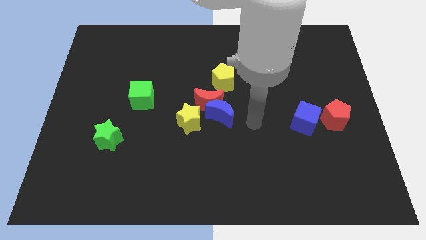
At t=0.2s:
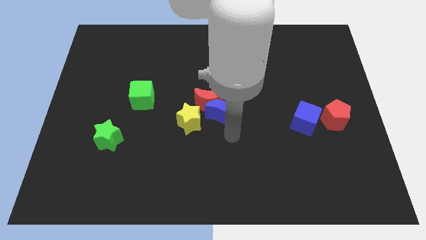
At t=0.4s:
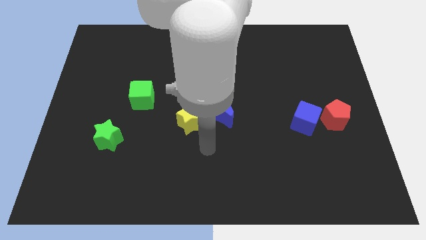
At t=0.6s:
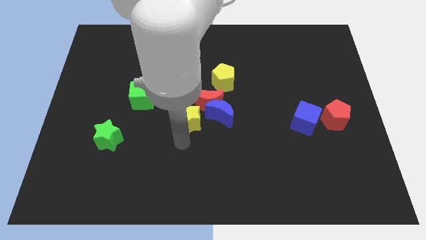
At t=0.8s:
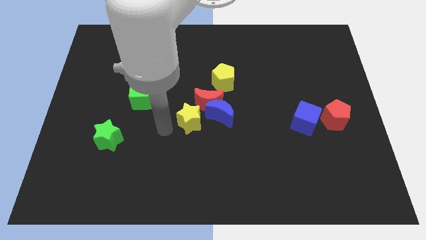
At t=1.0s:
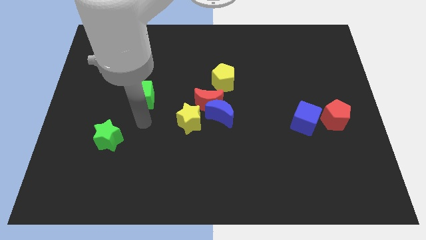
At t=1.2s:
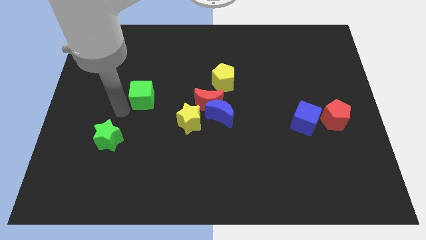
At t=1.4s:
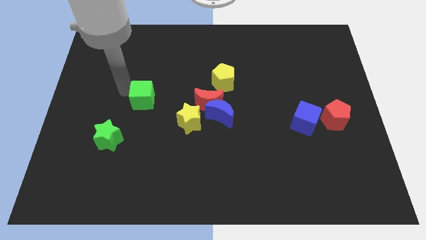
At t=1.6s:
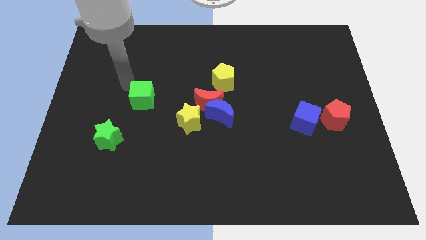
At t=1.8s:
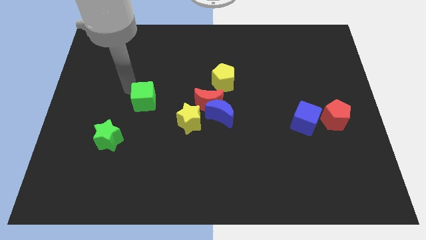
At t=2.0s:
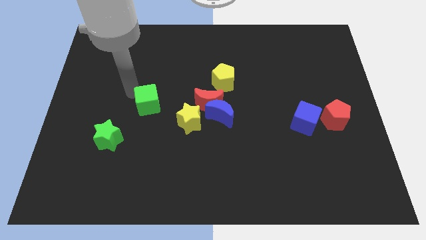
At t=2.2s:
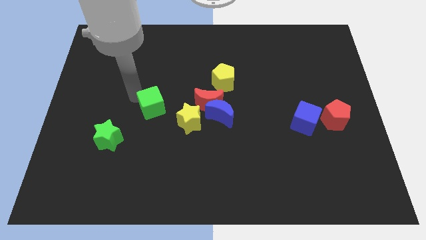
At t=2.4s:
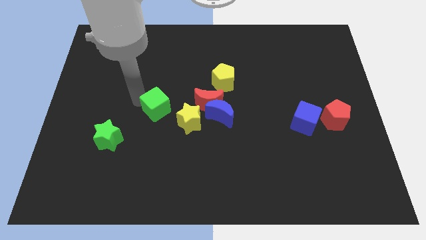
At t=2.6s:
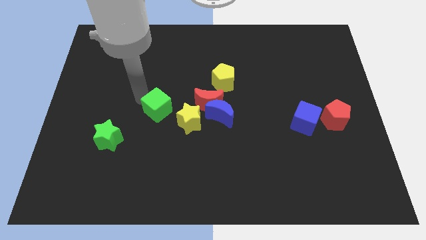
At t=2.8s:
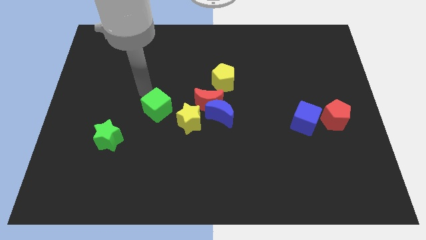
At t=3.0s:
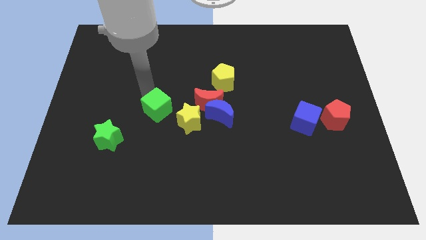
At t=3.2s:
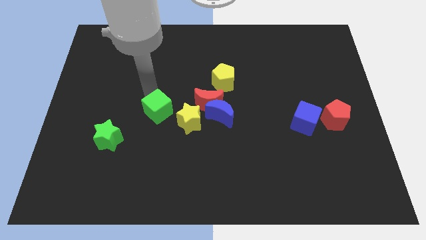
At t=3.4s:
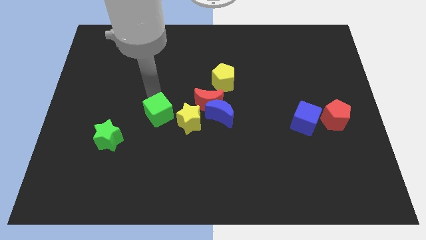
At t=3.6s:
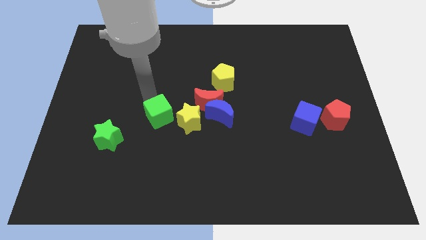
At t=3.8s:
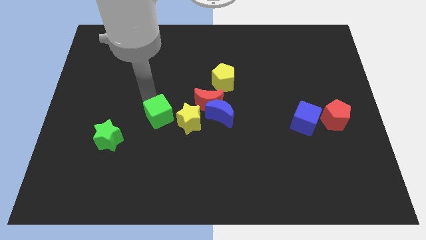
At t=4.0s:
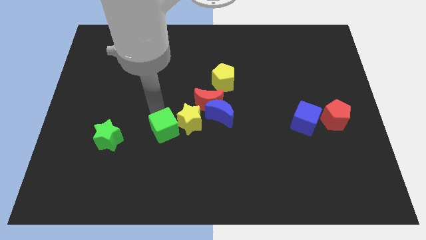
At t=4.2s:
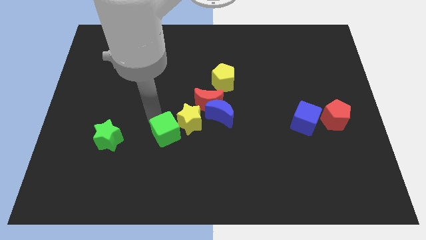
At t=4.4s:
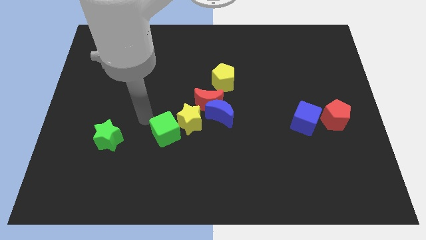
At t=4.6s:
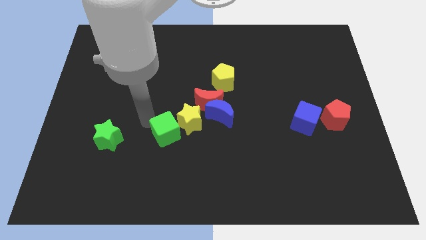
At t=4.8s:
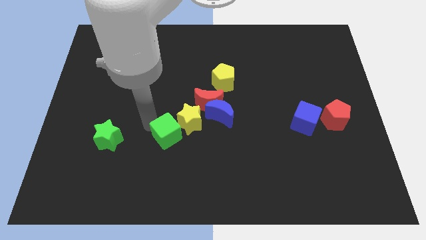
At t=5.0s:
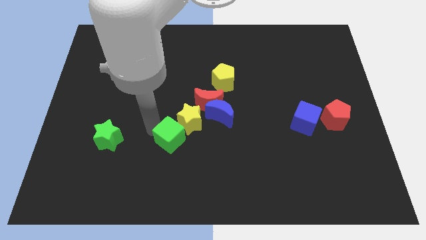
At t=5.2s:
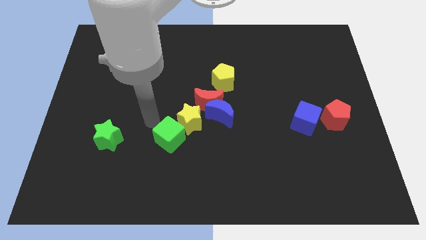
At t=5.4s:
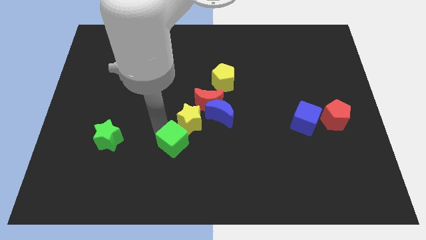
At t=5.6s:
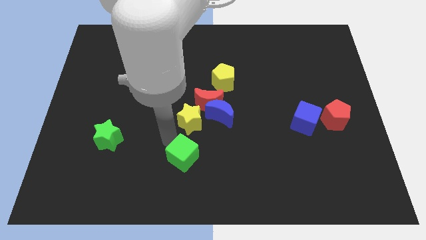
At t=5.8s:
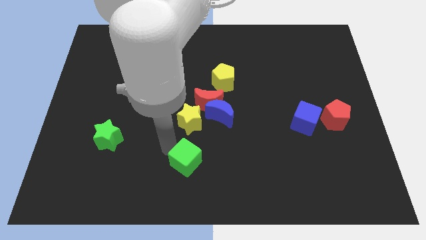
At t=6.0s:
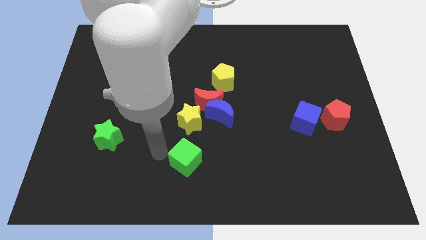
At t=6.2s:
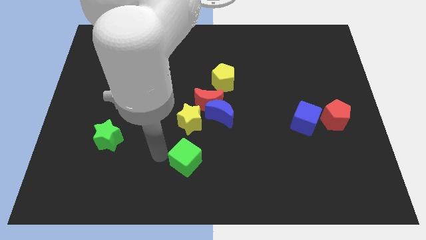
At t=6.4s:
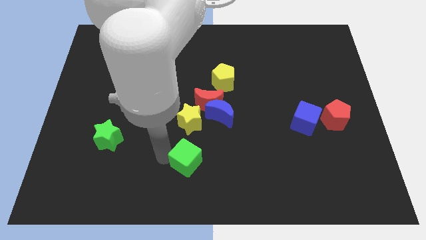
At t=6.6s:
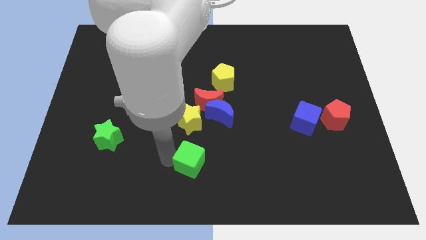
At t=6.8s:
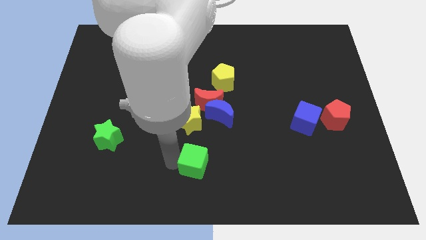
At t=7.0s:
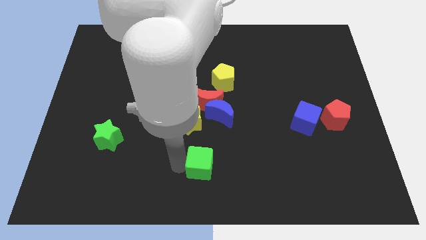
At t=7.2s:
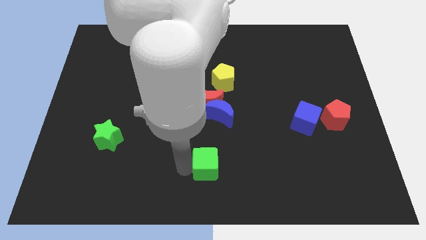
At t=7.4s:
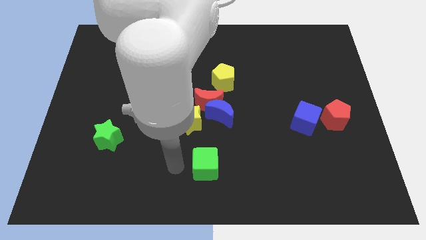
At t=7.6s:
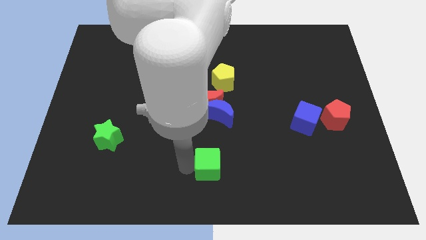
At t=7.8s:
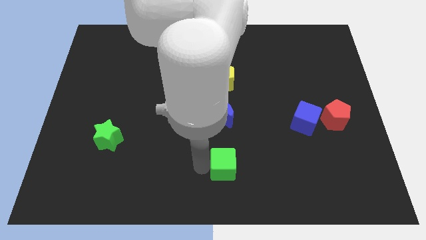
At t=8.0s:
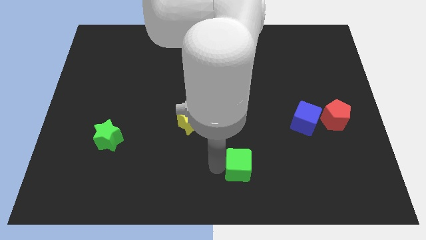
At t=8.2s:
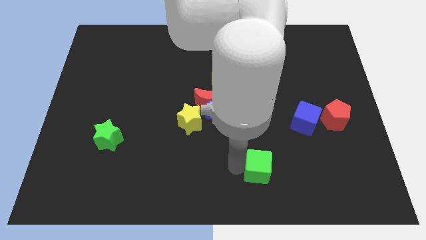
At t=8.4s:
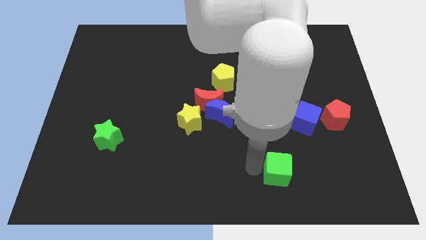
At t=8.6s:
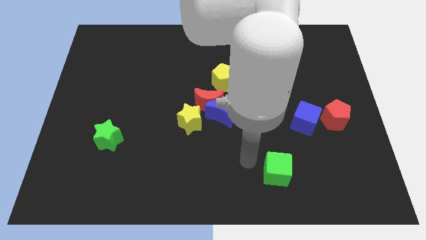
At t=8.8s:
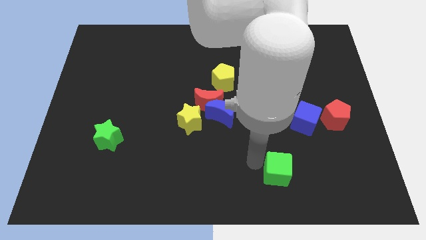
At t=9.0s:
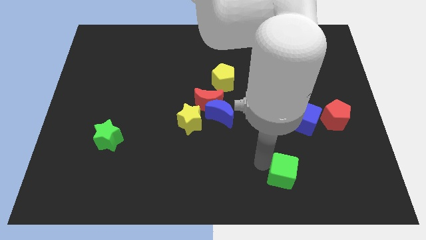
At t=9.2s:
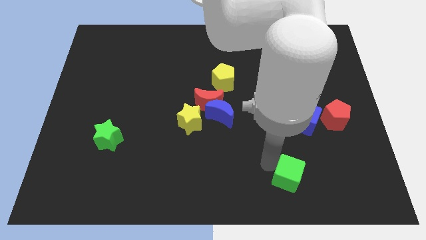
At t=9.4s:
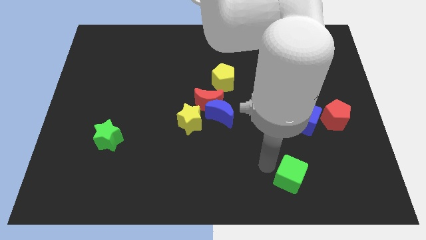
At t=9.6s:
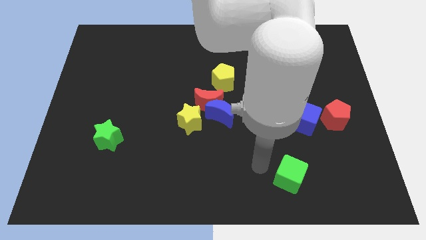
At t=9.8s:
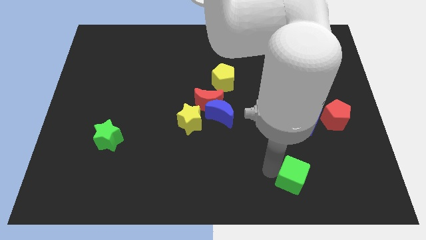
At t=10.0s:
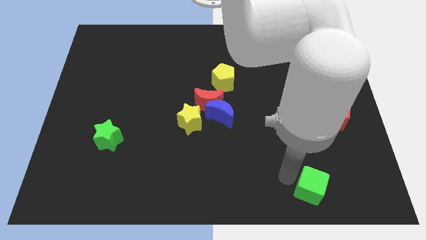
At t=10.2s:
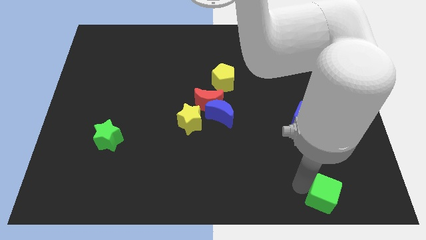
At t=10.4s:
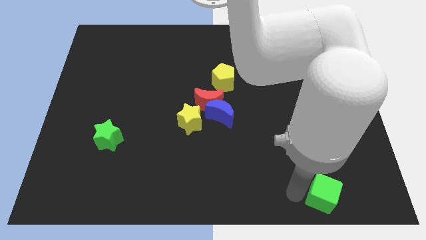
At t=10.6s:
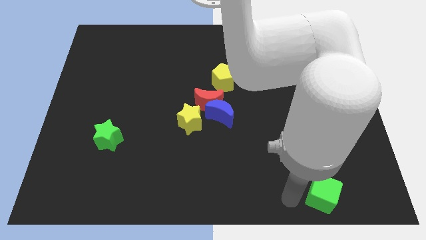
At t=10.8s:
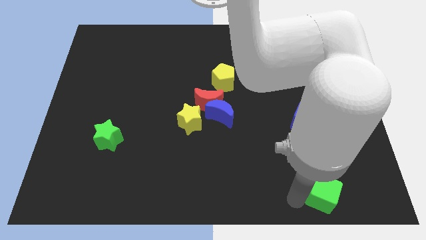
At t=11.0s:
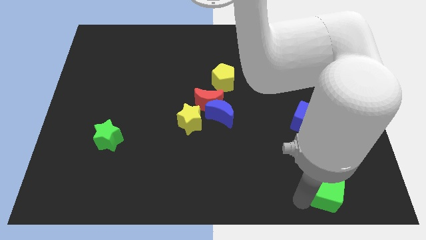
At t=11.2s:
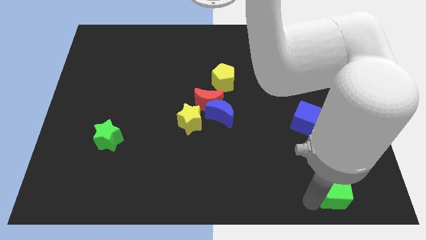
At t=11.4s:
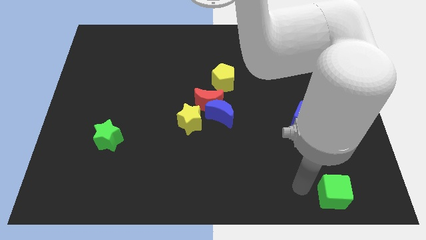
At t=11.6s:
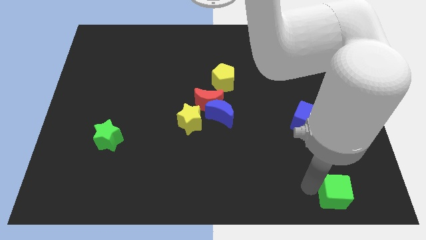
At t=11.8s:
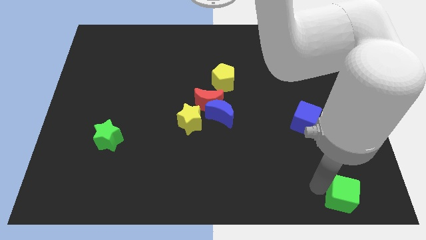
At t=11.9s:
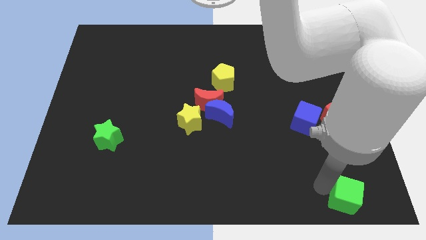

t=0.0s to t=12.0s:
slide the green cube to the bottom right corner
